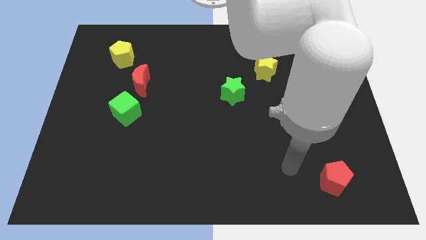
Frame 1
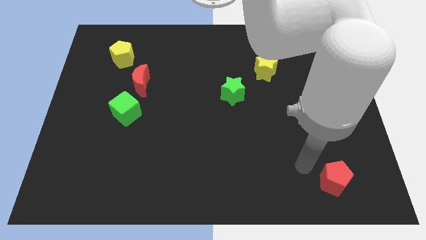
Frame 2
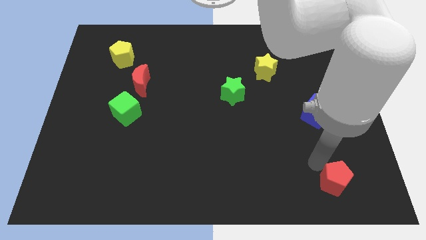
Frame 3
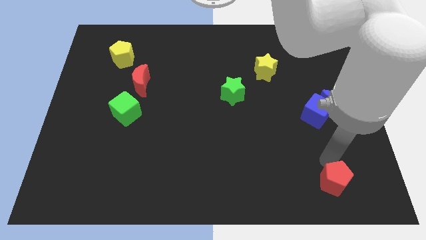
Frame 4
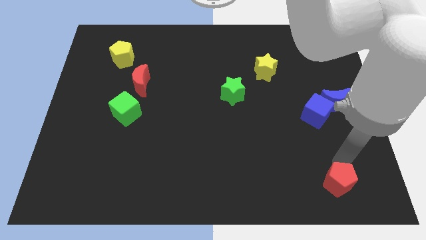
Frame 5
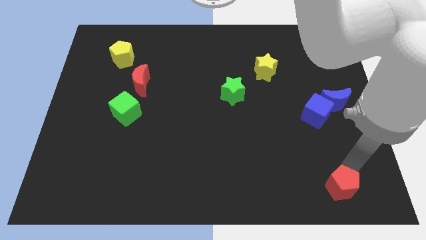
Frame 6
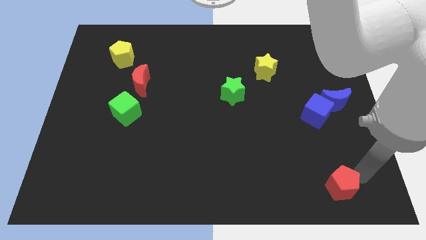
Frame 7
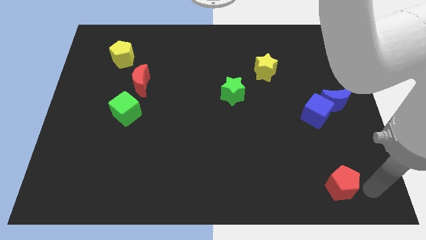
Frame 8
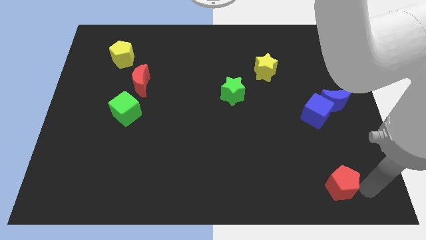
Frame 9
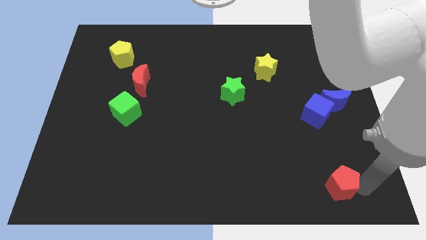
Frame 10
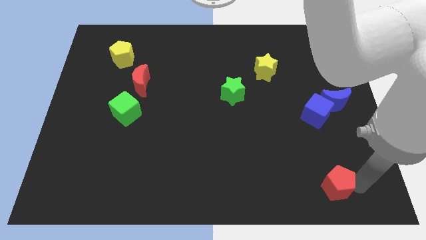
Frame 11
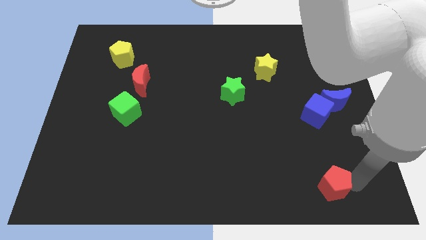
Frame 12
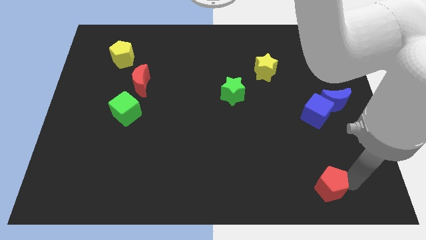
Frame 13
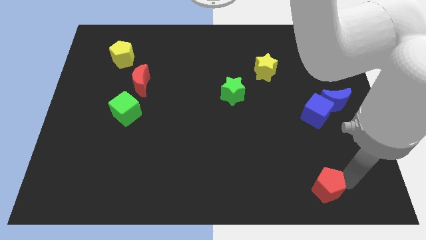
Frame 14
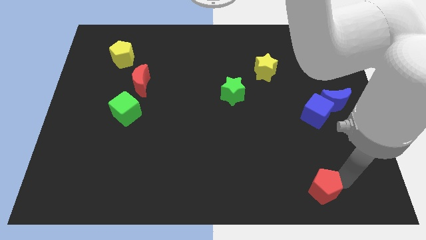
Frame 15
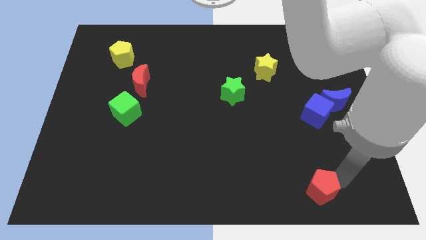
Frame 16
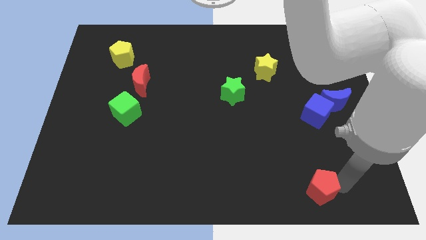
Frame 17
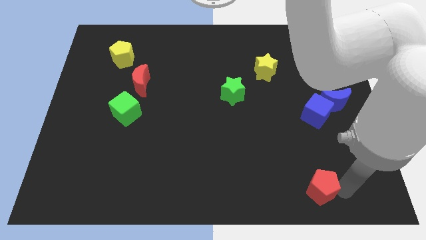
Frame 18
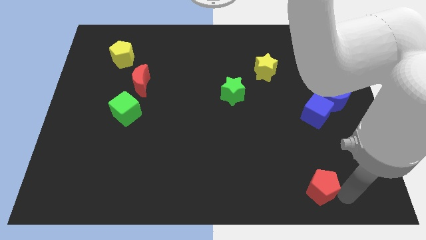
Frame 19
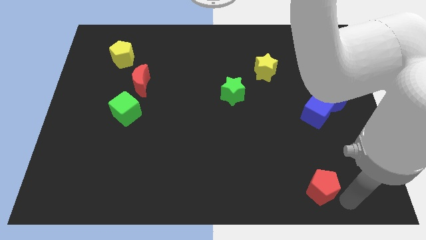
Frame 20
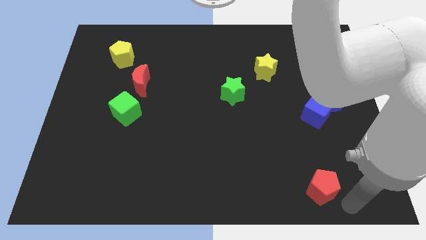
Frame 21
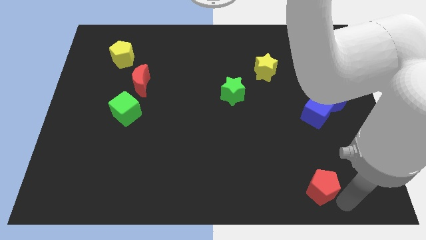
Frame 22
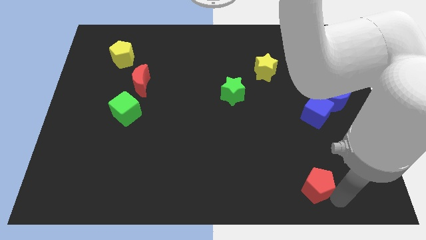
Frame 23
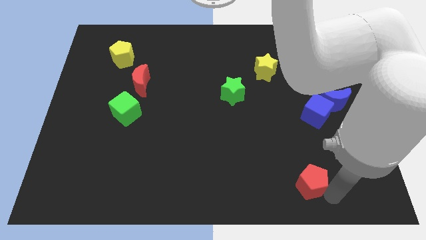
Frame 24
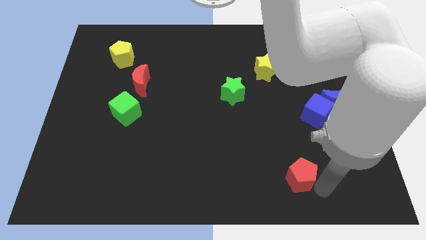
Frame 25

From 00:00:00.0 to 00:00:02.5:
push the red pentagon to the left a little bit

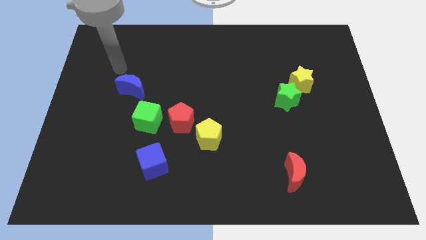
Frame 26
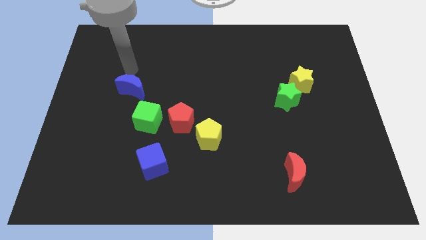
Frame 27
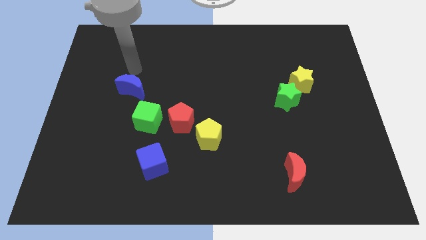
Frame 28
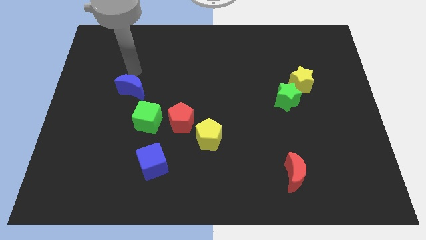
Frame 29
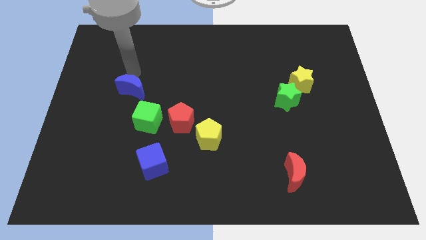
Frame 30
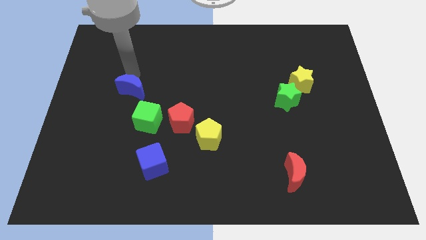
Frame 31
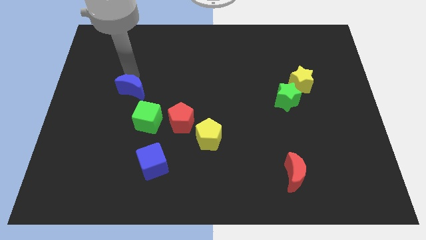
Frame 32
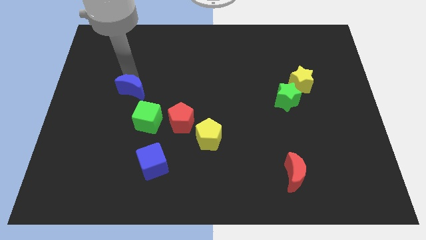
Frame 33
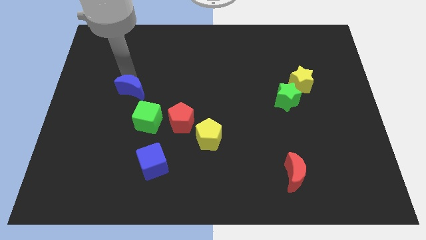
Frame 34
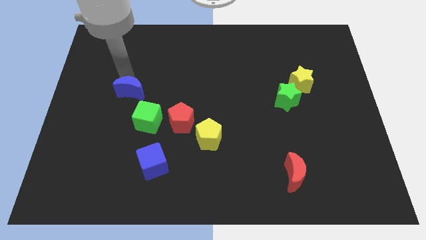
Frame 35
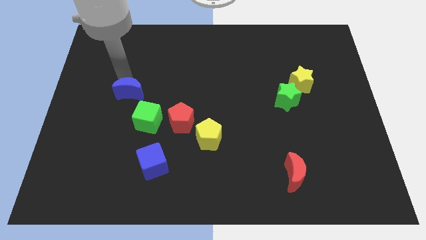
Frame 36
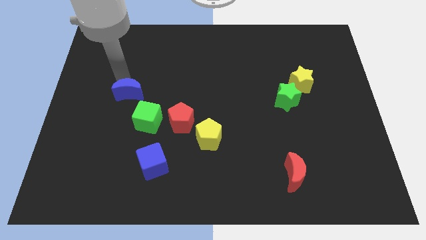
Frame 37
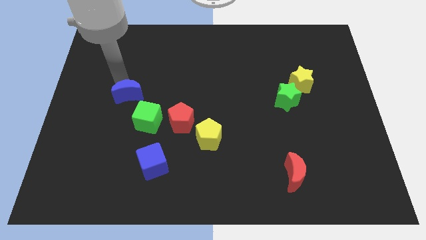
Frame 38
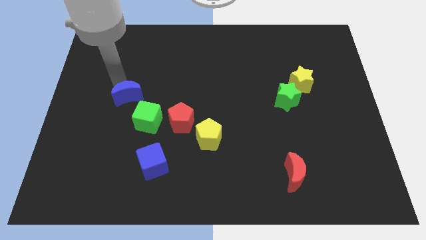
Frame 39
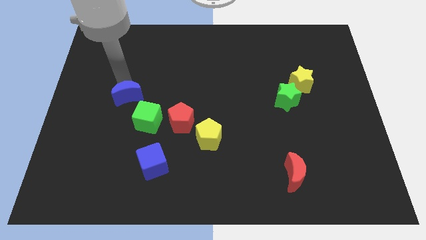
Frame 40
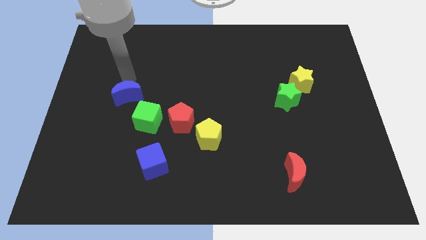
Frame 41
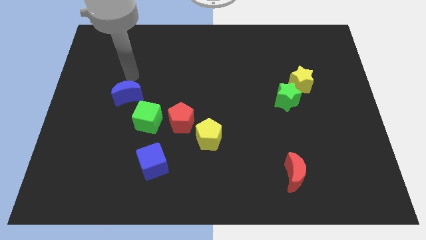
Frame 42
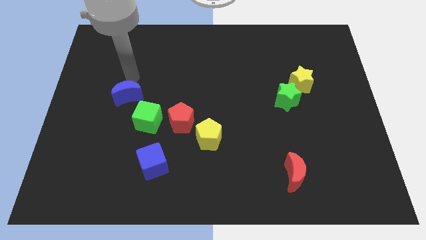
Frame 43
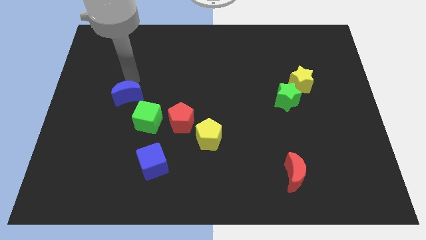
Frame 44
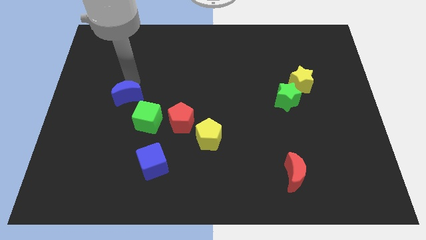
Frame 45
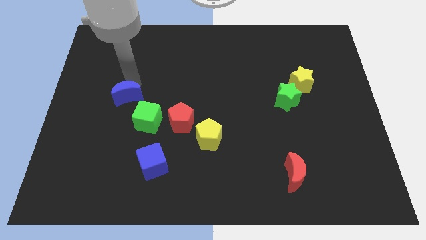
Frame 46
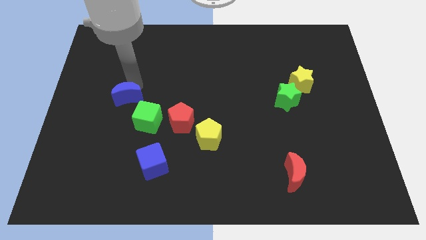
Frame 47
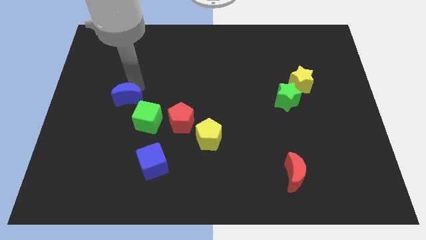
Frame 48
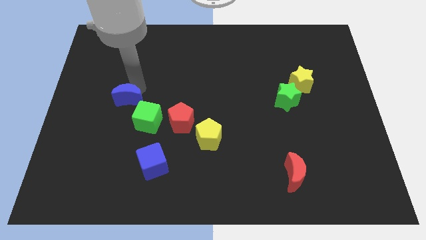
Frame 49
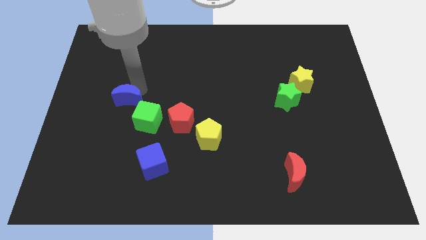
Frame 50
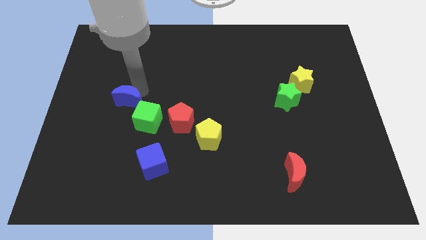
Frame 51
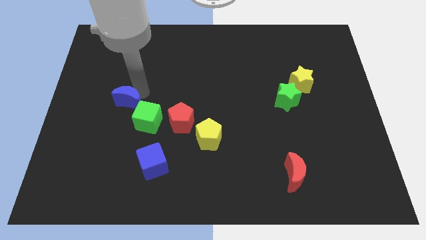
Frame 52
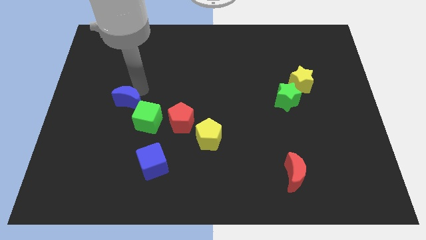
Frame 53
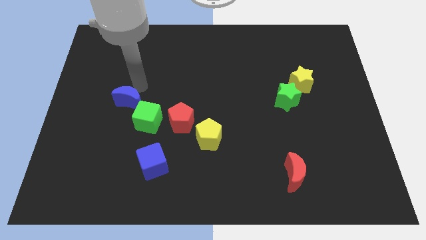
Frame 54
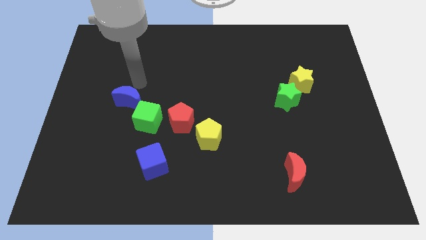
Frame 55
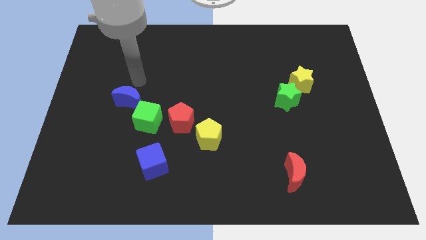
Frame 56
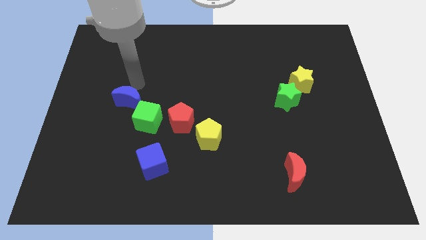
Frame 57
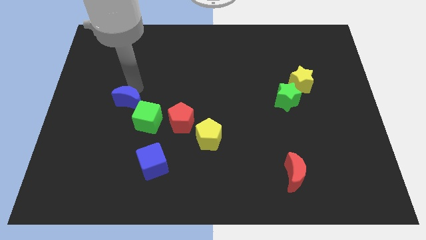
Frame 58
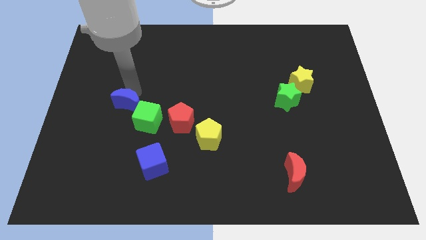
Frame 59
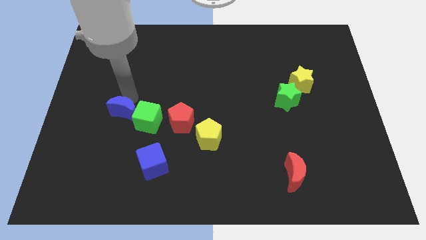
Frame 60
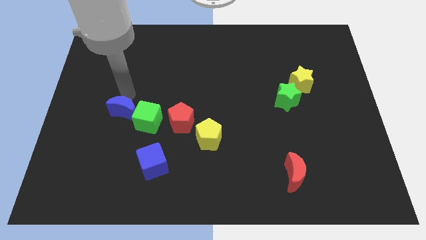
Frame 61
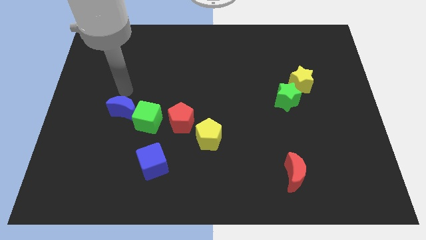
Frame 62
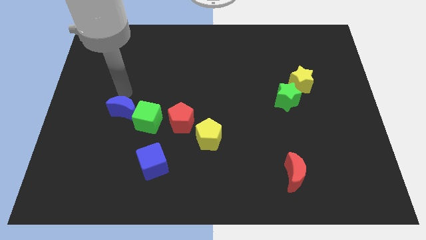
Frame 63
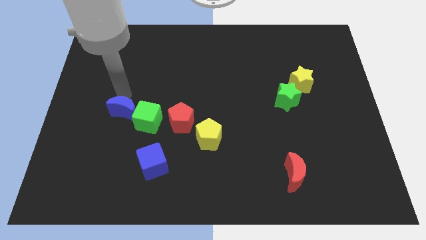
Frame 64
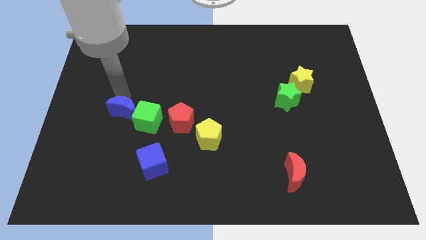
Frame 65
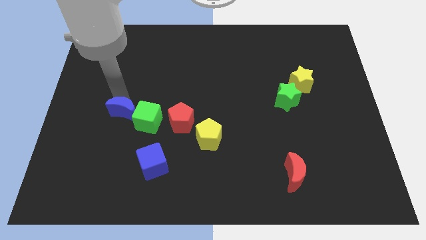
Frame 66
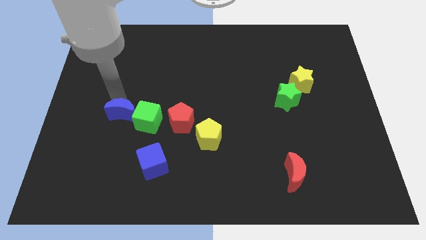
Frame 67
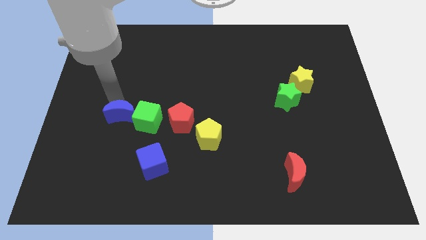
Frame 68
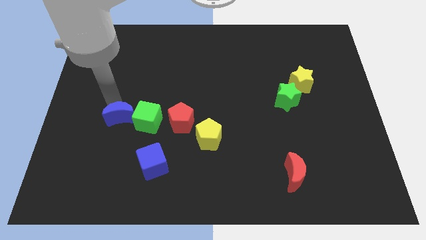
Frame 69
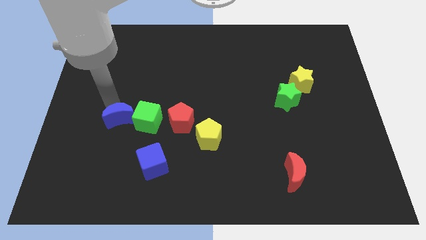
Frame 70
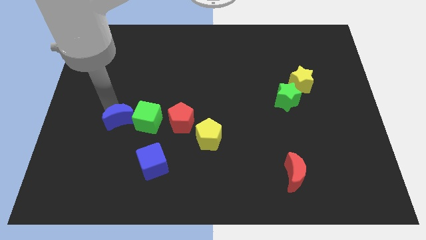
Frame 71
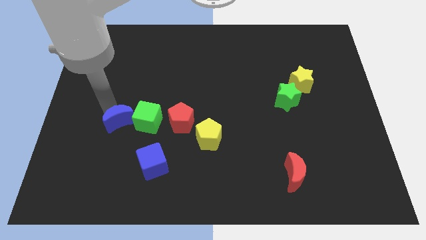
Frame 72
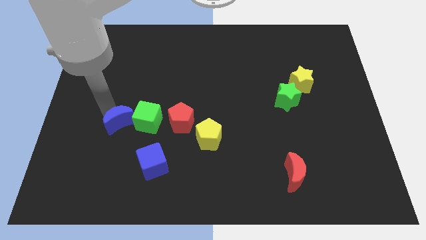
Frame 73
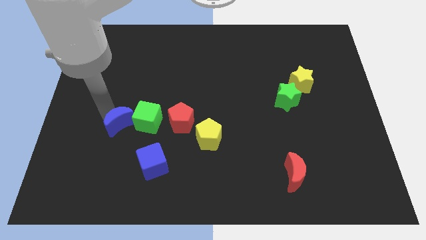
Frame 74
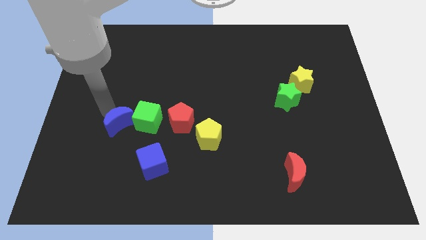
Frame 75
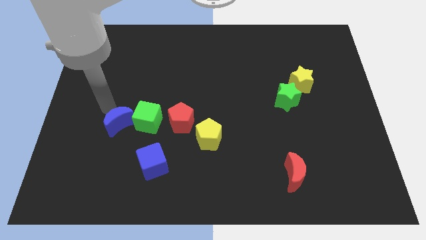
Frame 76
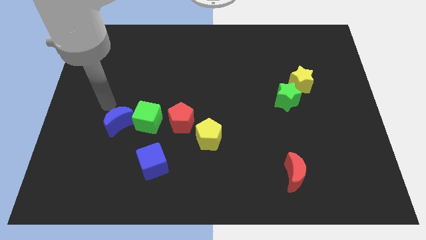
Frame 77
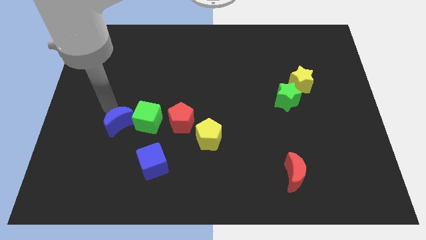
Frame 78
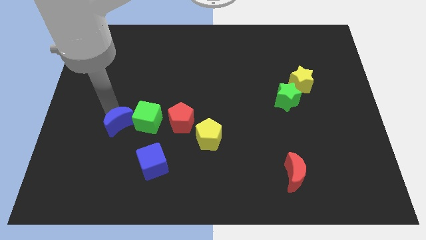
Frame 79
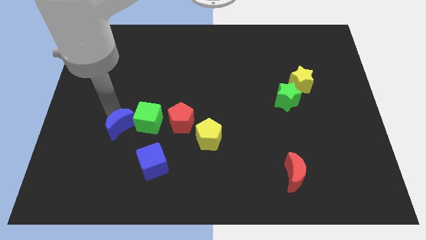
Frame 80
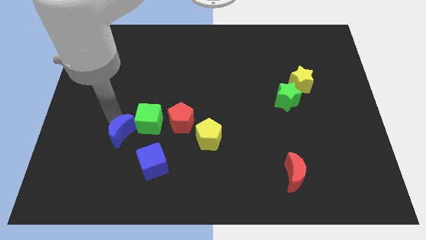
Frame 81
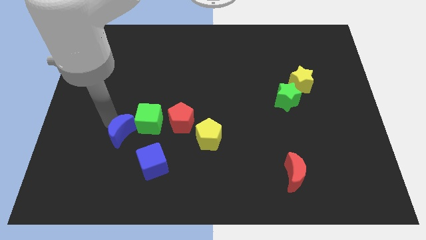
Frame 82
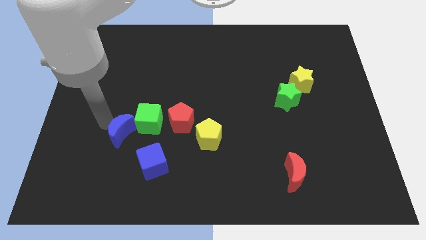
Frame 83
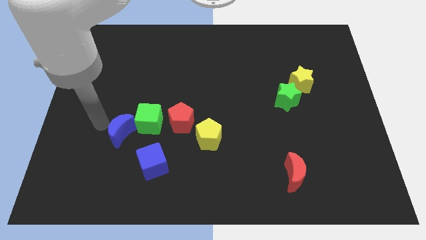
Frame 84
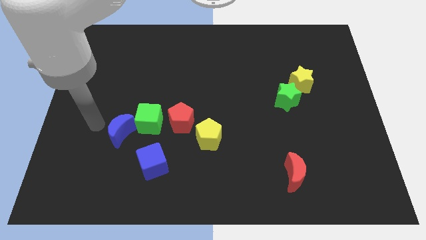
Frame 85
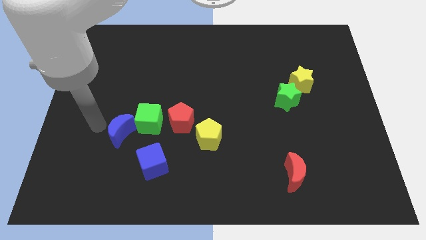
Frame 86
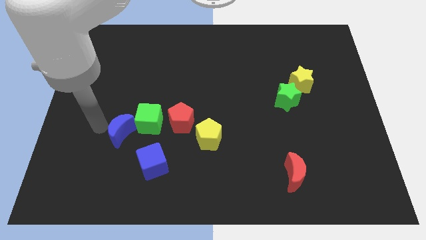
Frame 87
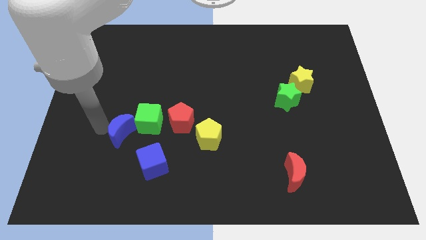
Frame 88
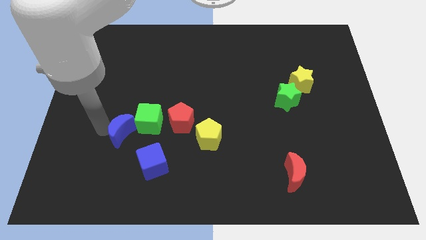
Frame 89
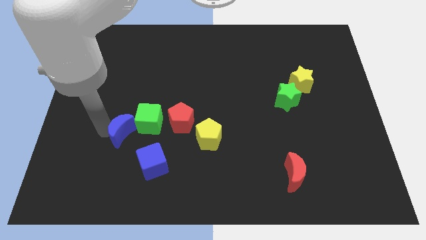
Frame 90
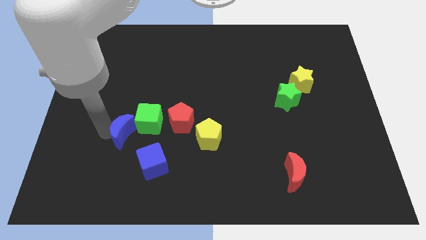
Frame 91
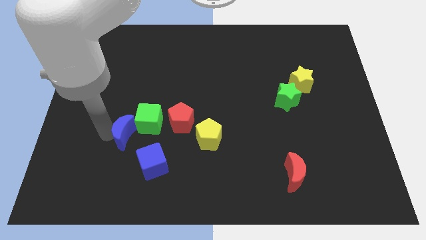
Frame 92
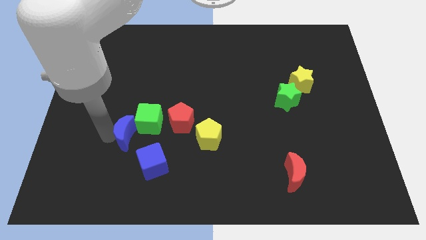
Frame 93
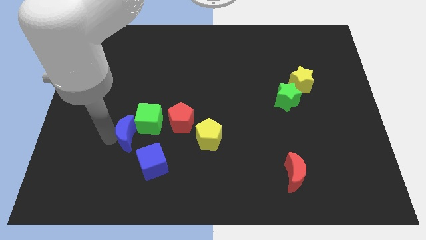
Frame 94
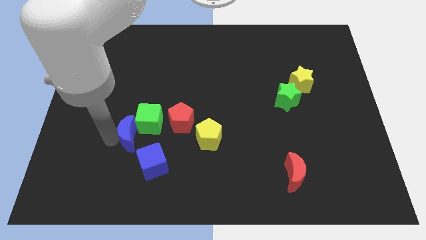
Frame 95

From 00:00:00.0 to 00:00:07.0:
push the blue moon slightly diagonally down and right
